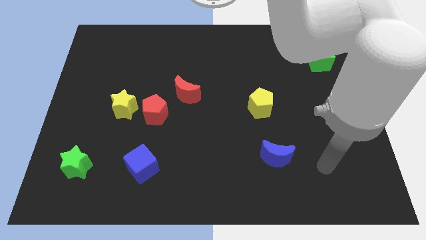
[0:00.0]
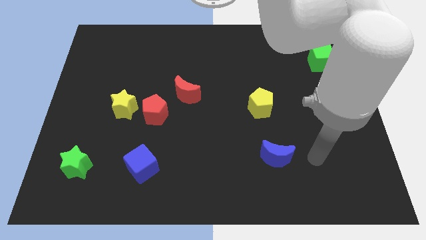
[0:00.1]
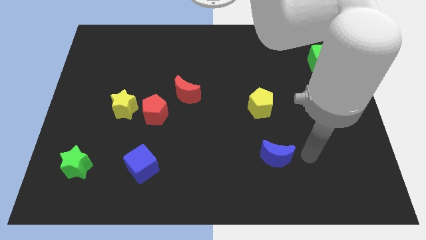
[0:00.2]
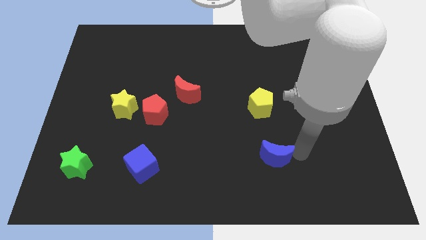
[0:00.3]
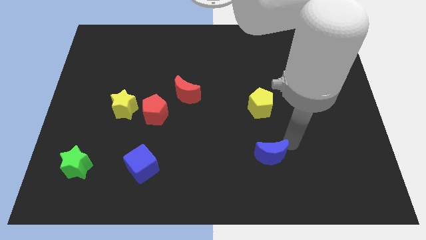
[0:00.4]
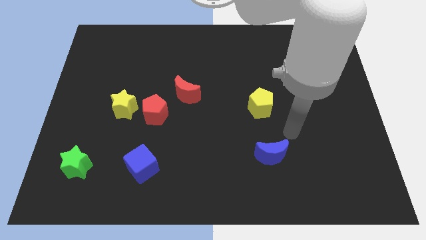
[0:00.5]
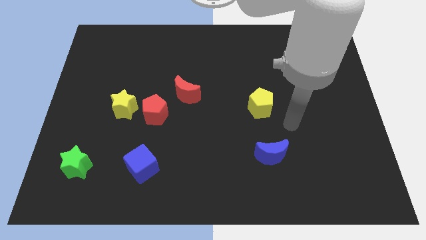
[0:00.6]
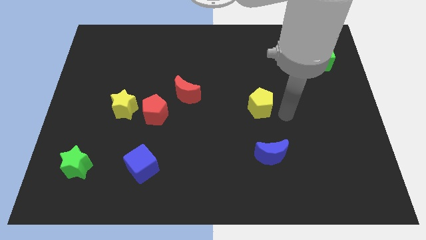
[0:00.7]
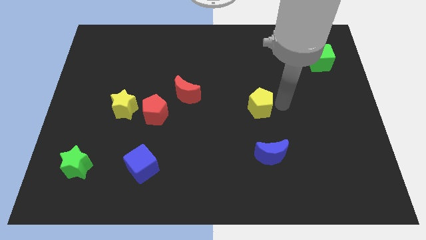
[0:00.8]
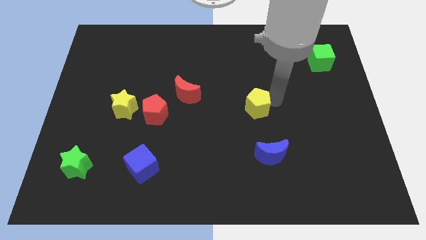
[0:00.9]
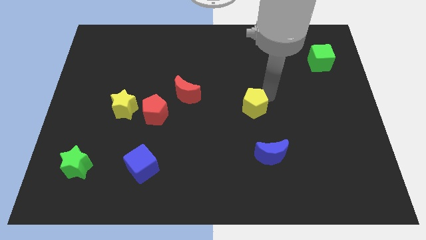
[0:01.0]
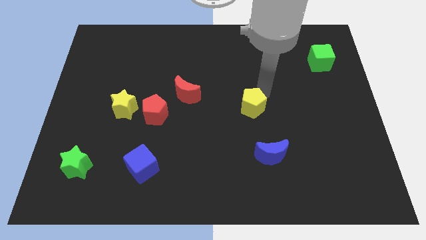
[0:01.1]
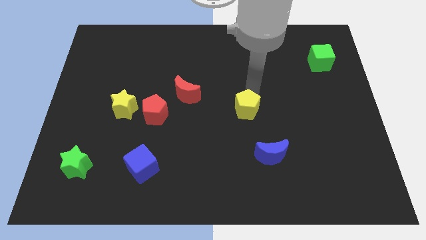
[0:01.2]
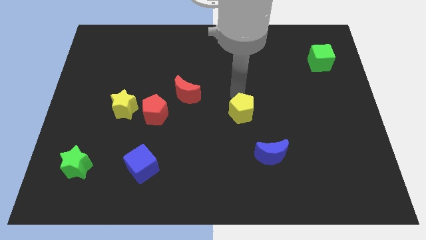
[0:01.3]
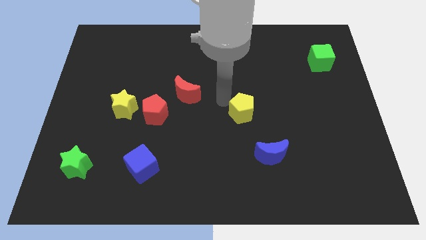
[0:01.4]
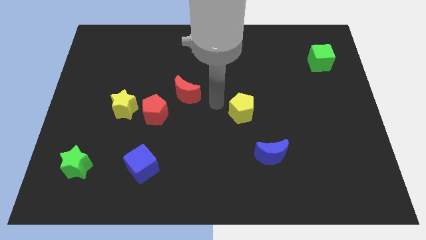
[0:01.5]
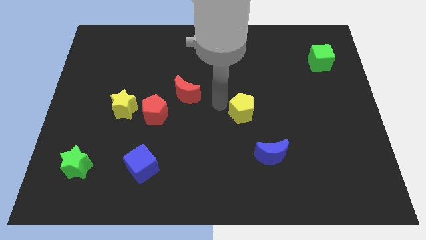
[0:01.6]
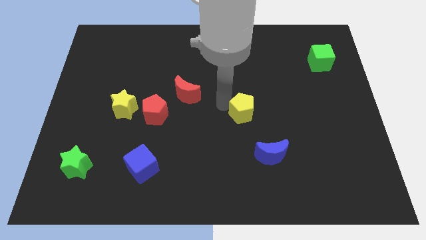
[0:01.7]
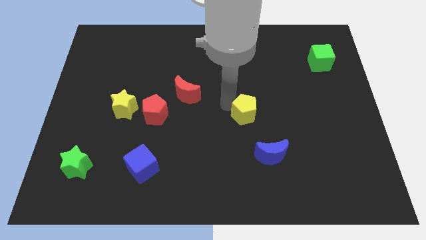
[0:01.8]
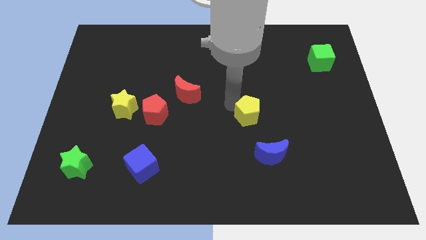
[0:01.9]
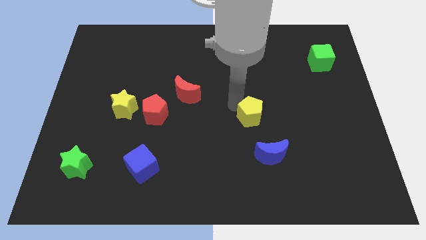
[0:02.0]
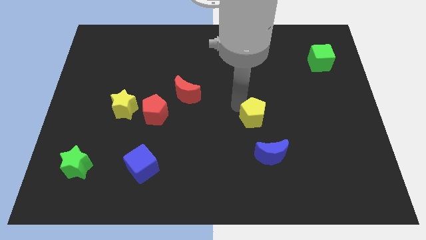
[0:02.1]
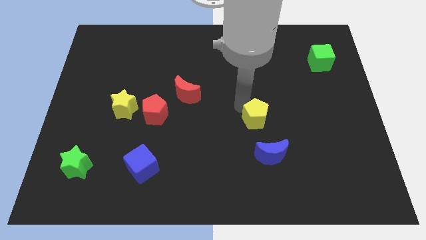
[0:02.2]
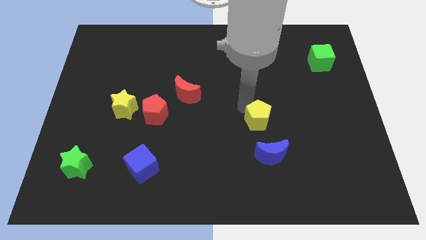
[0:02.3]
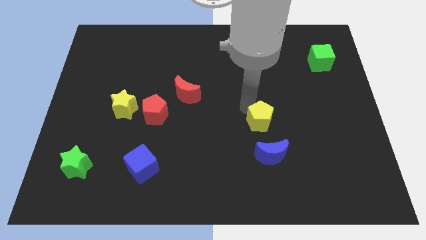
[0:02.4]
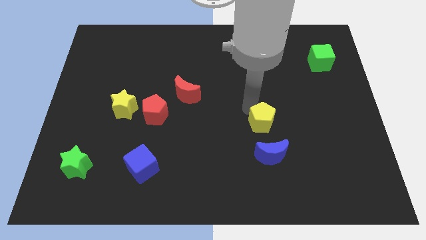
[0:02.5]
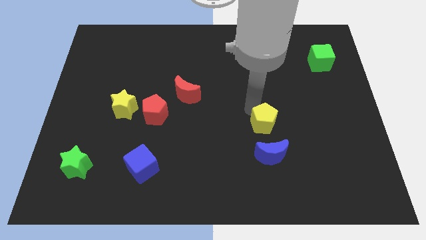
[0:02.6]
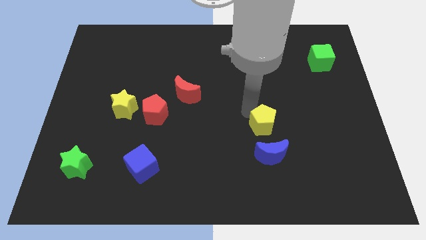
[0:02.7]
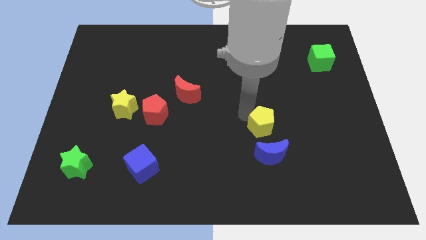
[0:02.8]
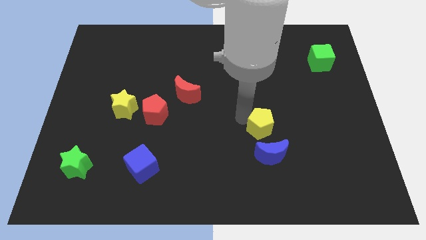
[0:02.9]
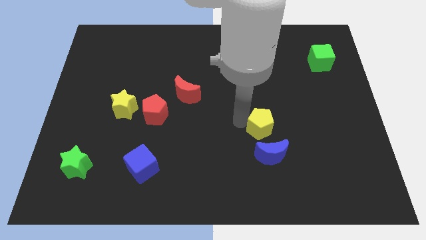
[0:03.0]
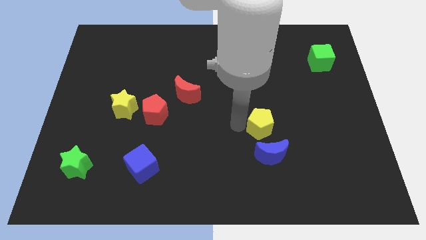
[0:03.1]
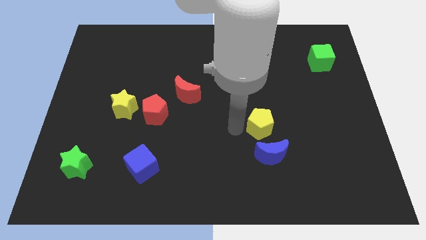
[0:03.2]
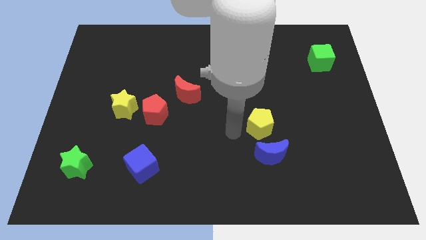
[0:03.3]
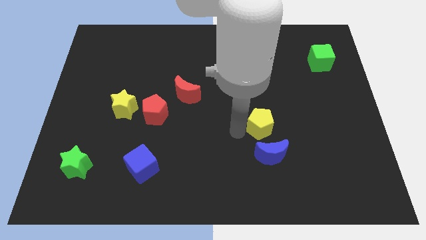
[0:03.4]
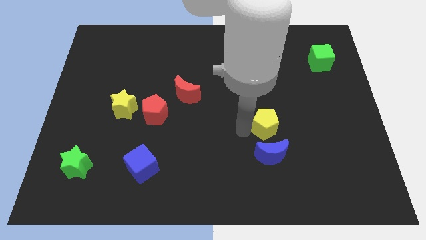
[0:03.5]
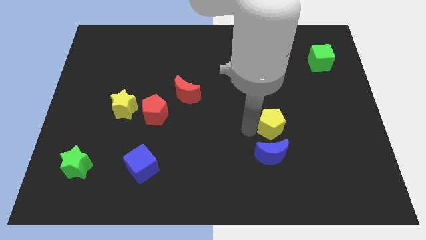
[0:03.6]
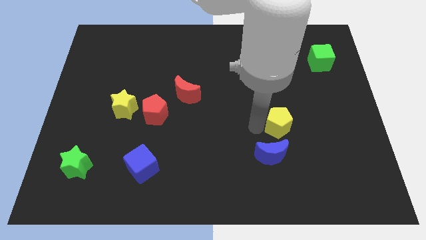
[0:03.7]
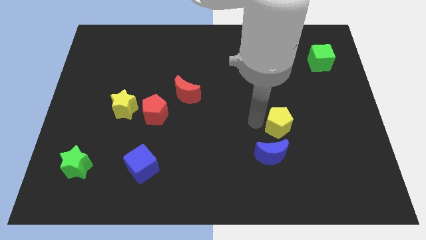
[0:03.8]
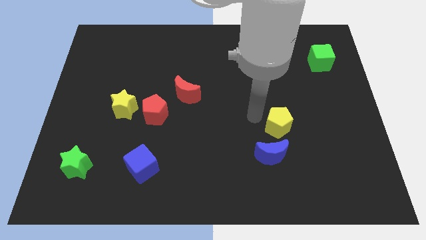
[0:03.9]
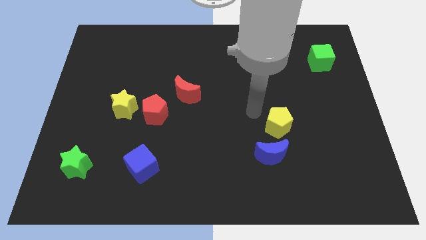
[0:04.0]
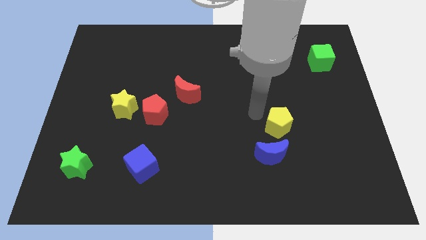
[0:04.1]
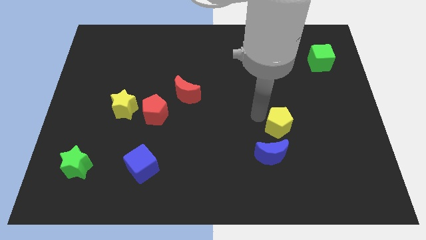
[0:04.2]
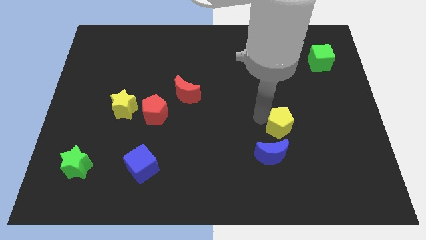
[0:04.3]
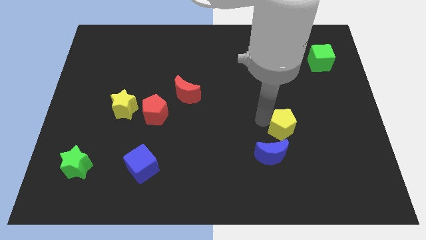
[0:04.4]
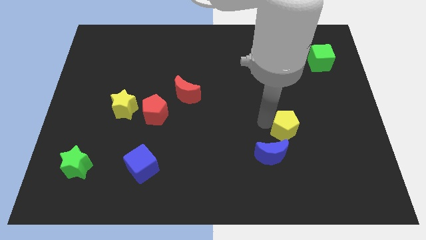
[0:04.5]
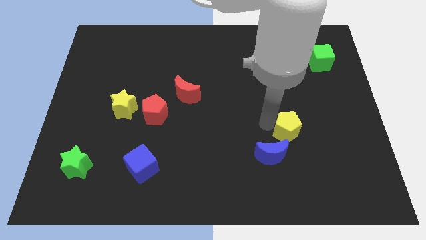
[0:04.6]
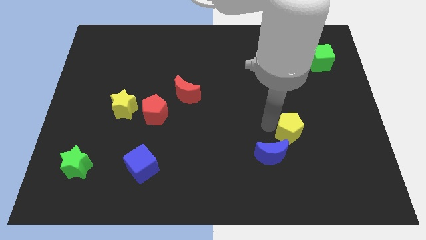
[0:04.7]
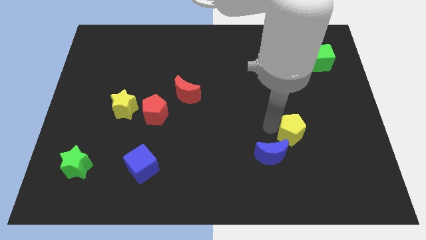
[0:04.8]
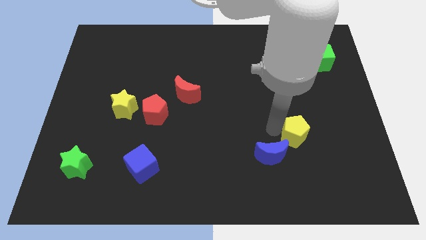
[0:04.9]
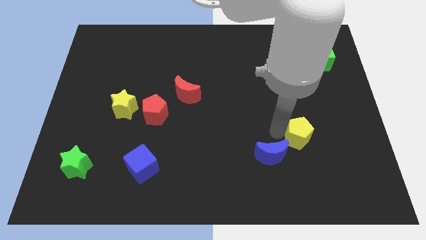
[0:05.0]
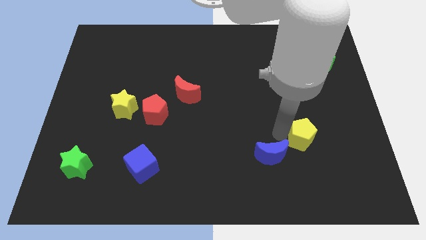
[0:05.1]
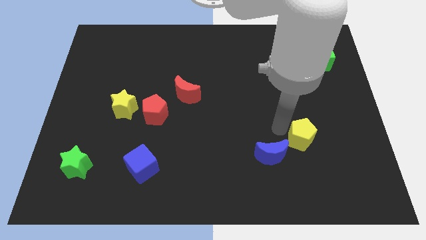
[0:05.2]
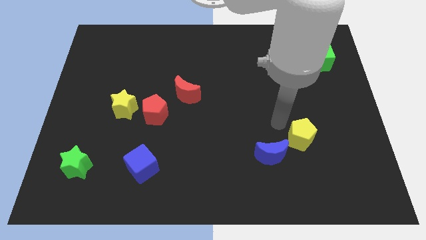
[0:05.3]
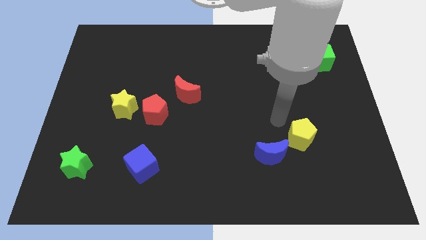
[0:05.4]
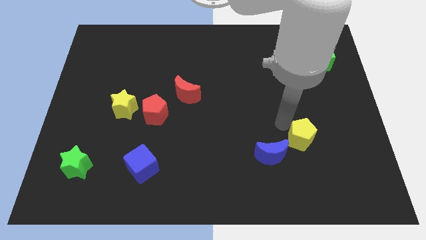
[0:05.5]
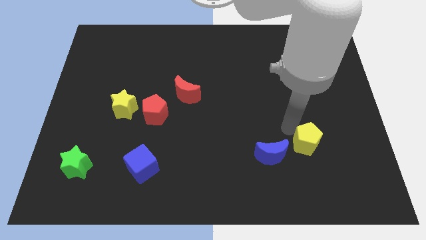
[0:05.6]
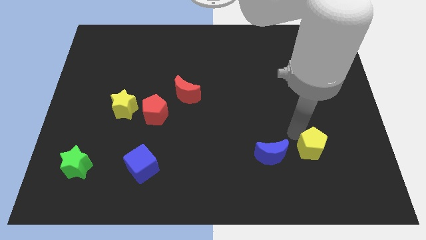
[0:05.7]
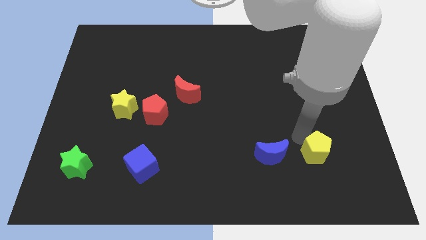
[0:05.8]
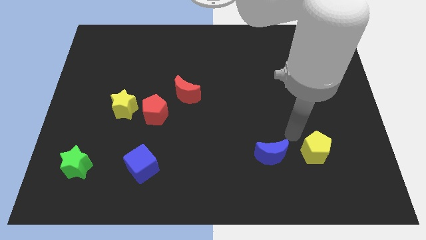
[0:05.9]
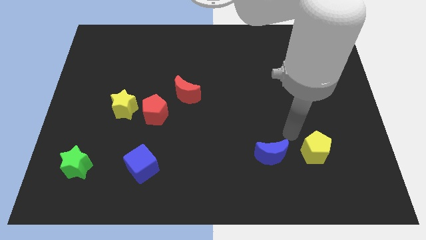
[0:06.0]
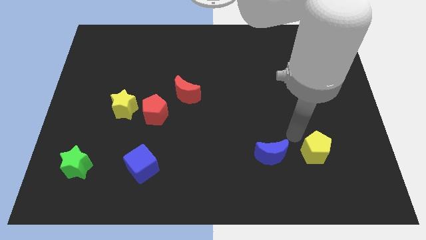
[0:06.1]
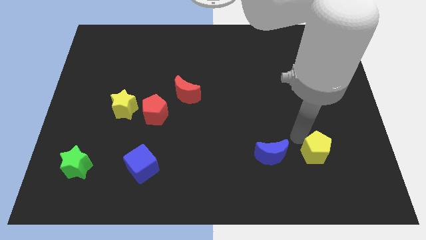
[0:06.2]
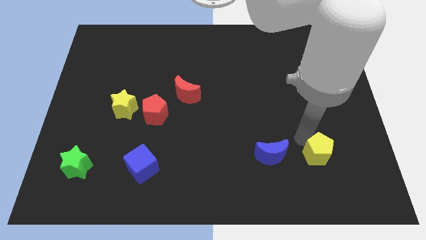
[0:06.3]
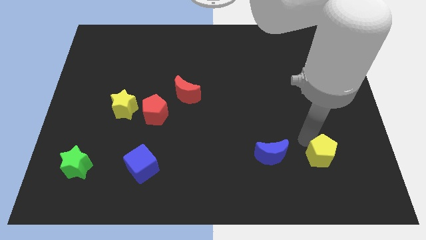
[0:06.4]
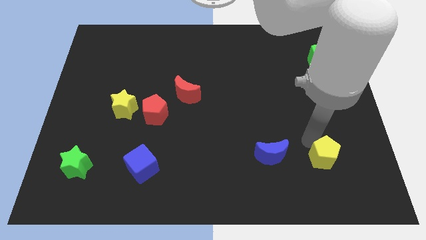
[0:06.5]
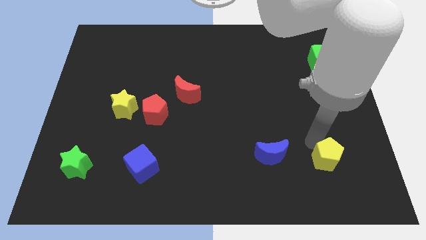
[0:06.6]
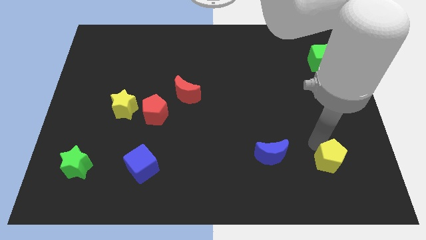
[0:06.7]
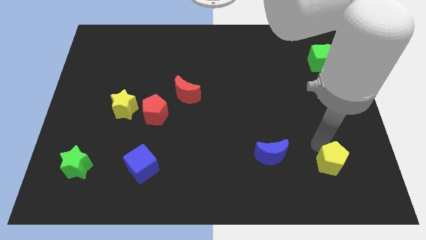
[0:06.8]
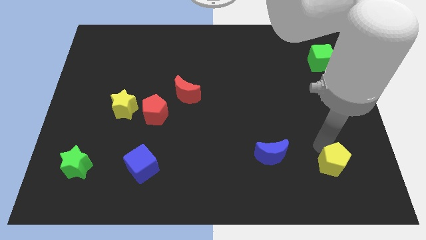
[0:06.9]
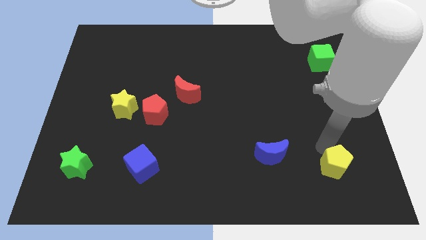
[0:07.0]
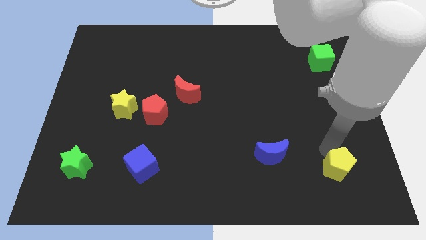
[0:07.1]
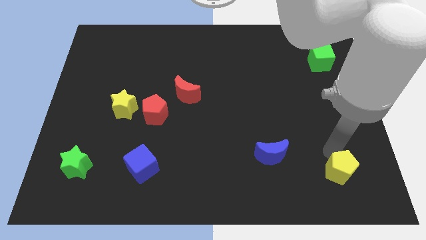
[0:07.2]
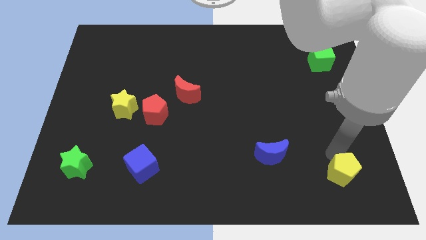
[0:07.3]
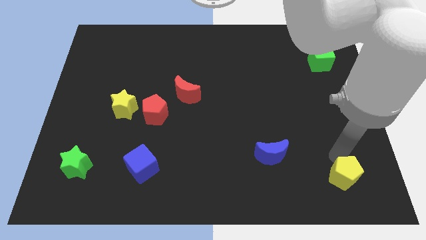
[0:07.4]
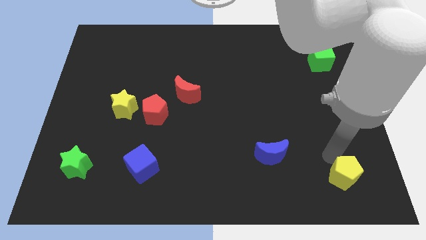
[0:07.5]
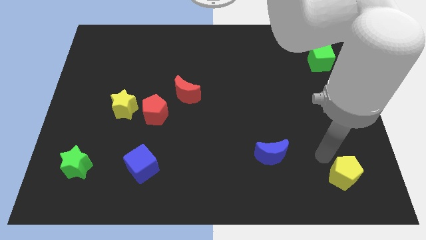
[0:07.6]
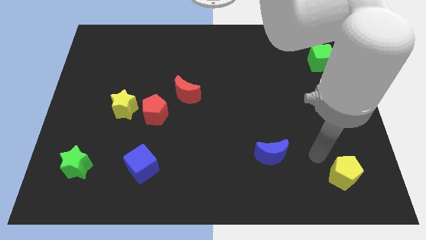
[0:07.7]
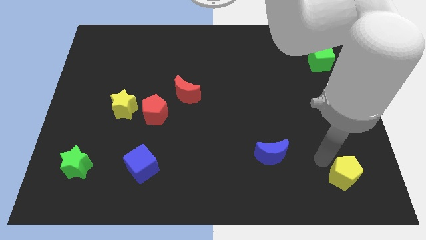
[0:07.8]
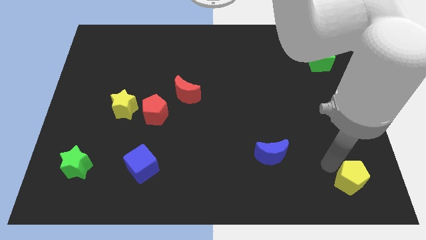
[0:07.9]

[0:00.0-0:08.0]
move the yellow pentagon to the bottom right corner

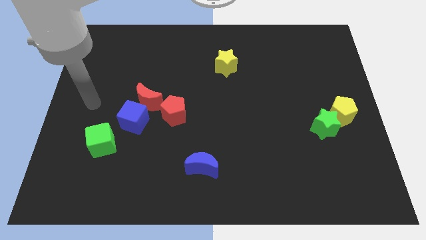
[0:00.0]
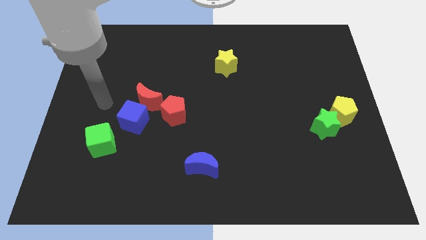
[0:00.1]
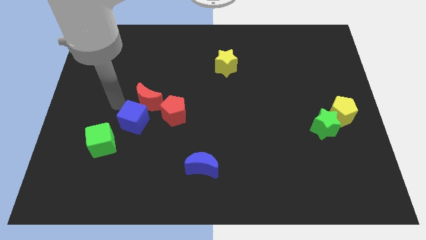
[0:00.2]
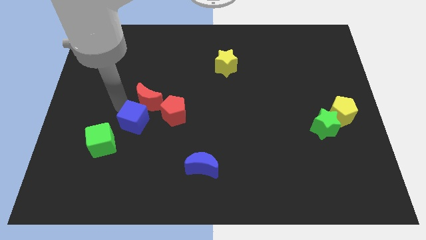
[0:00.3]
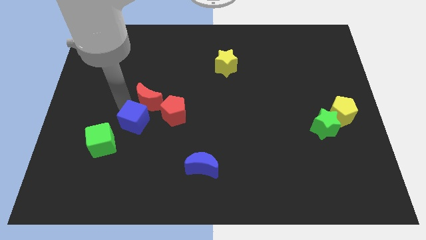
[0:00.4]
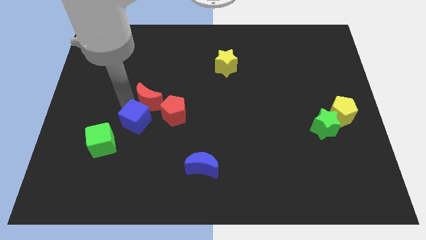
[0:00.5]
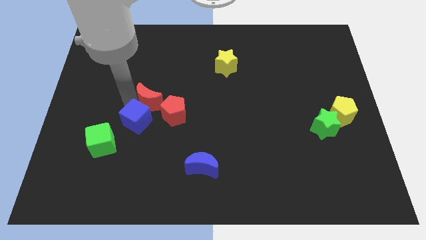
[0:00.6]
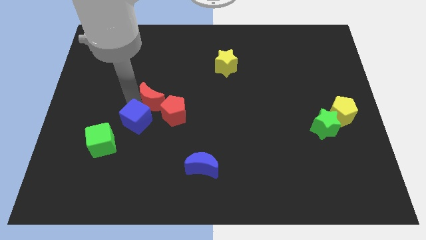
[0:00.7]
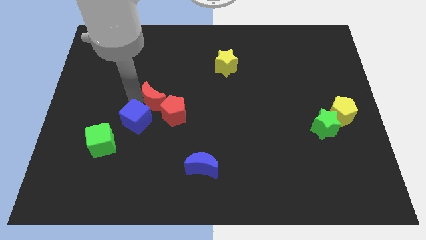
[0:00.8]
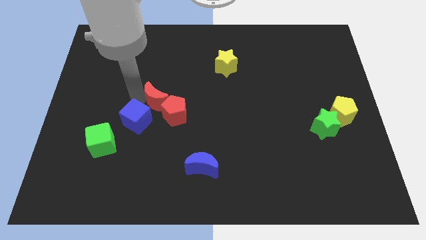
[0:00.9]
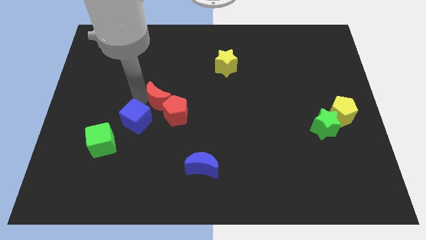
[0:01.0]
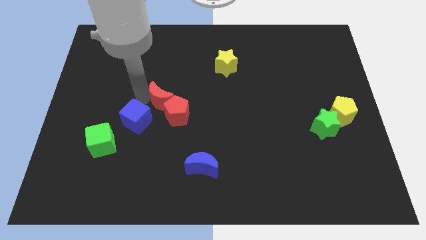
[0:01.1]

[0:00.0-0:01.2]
move the red moon to the middle of the board
